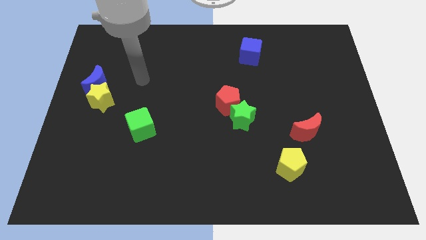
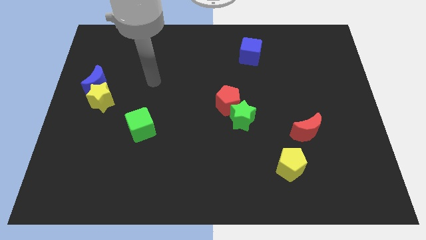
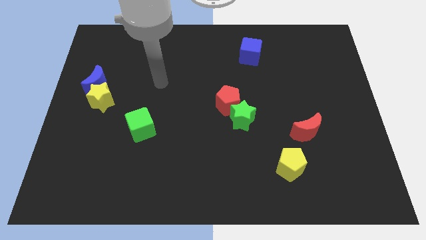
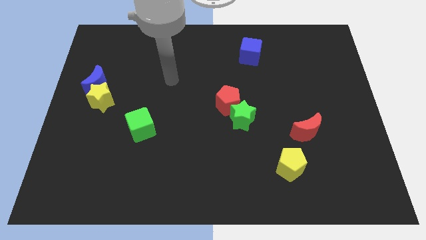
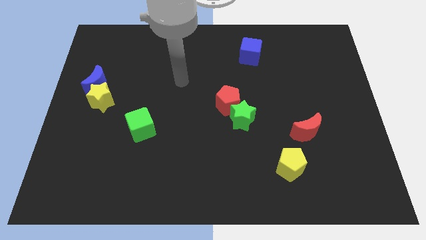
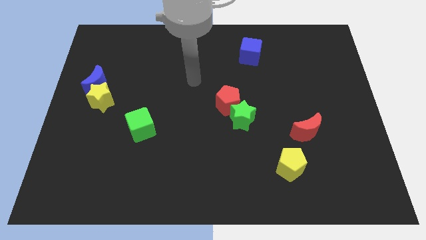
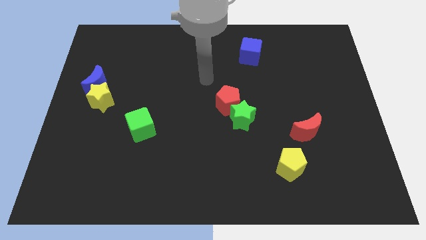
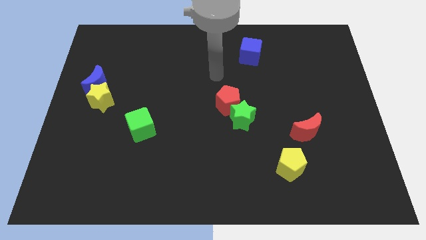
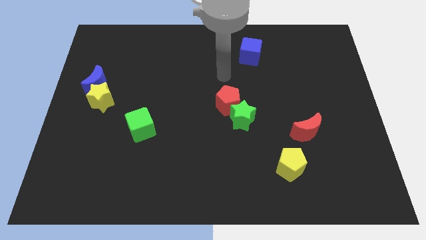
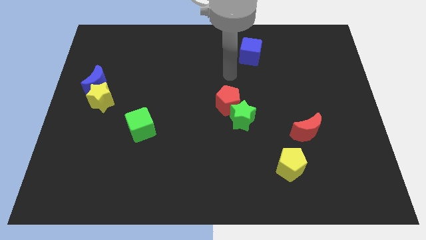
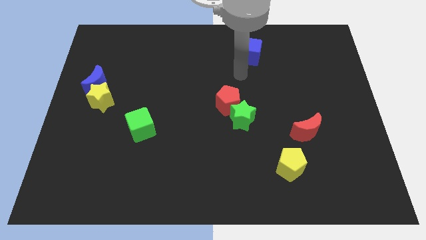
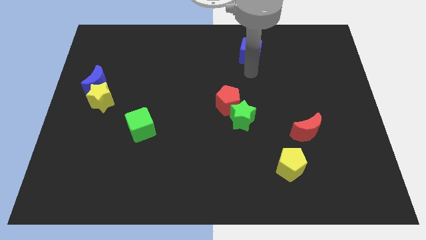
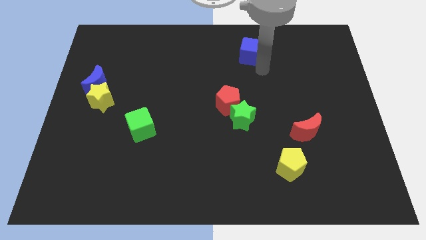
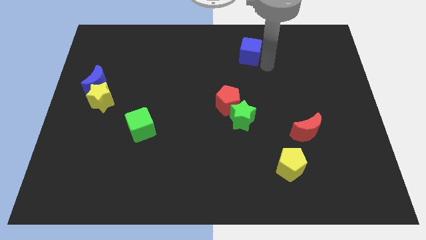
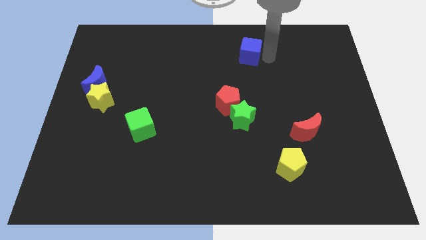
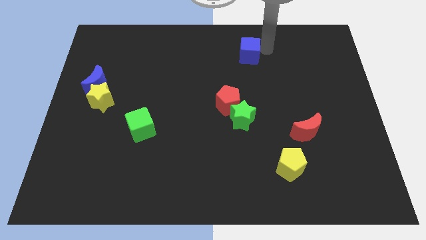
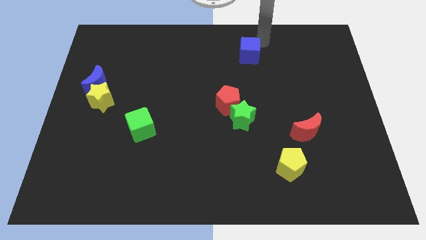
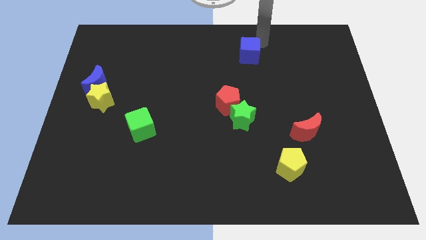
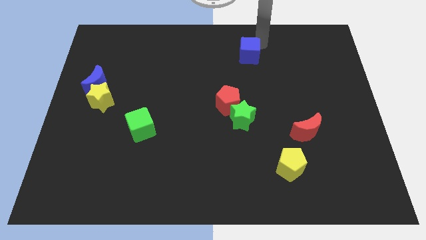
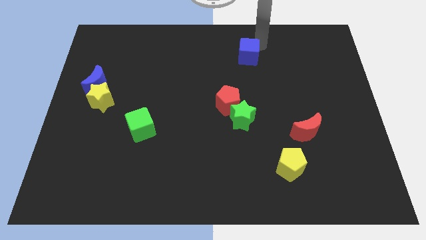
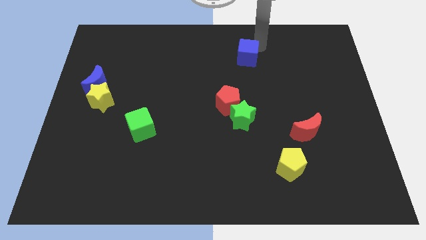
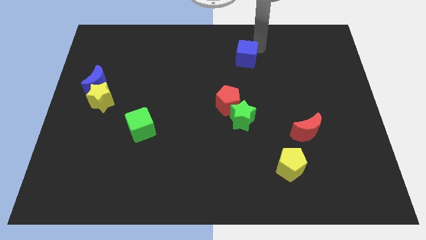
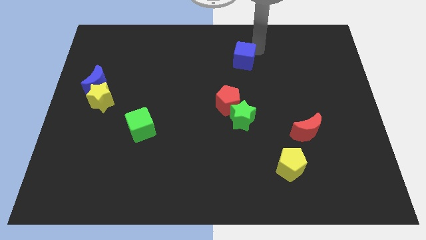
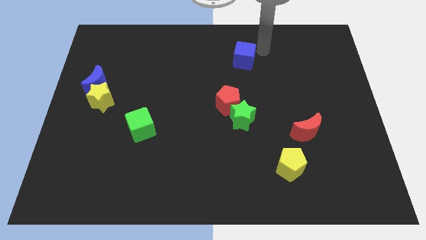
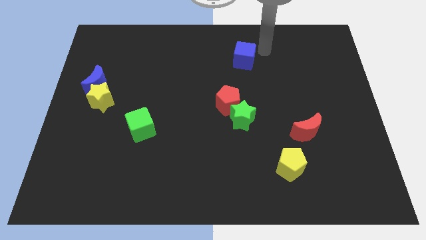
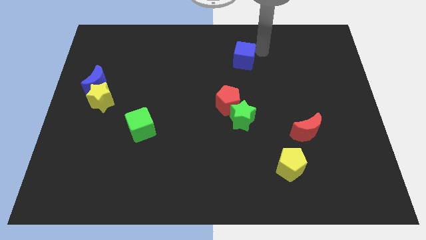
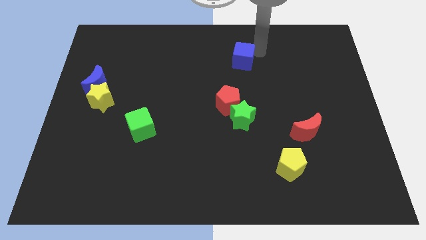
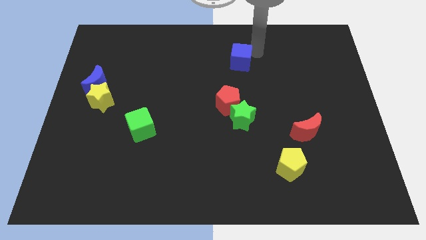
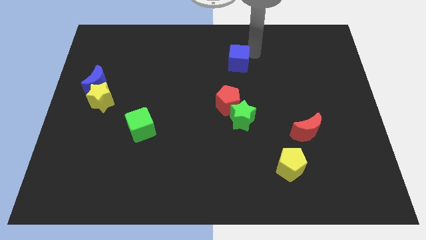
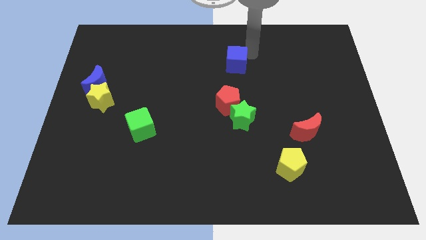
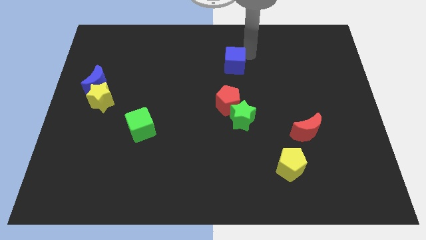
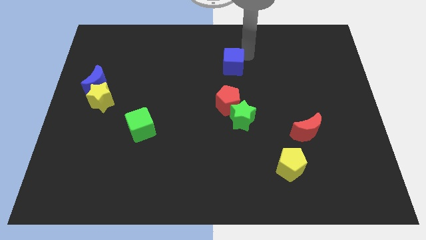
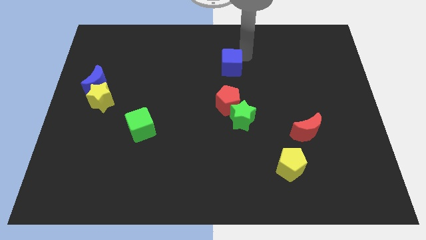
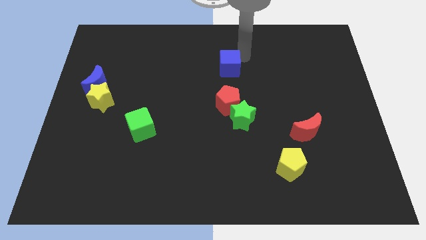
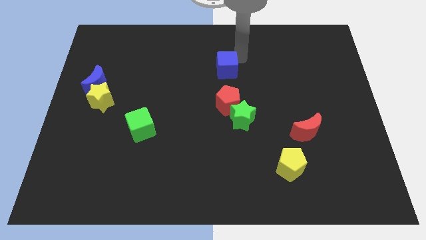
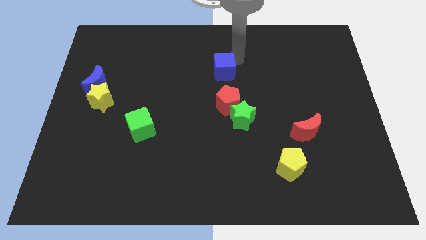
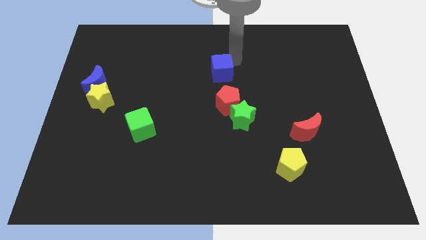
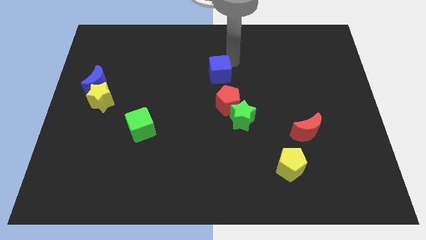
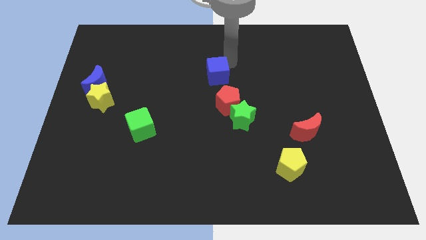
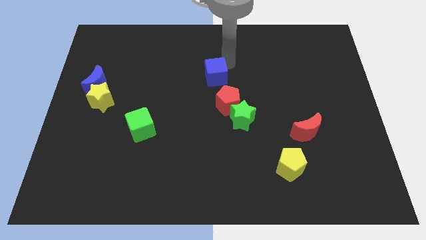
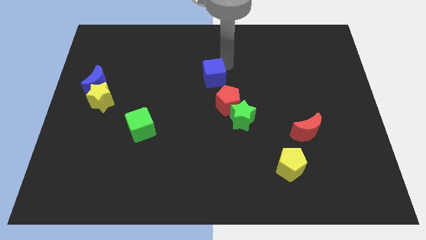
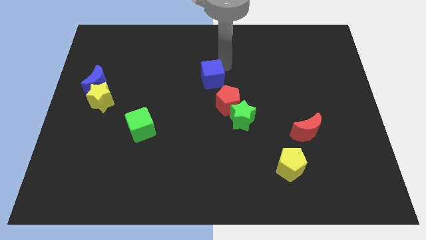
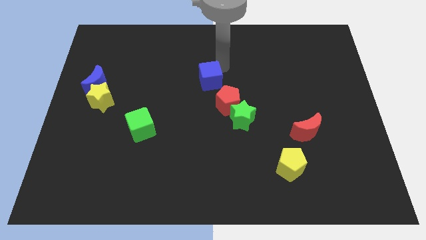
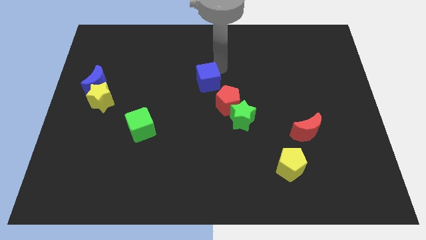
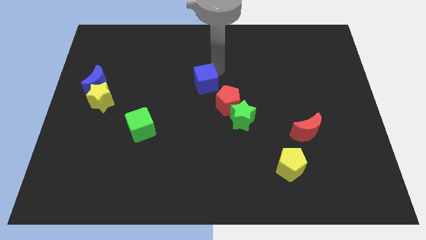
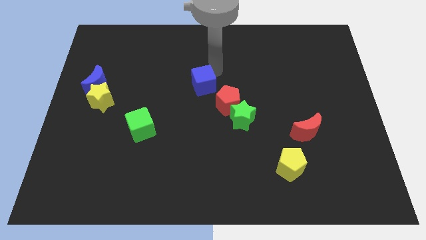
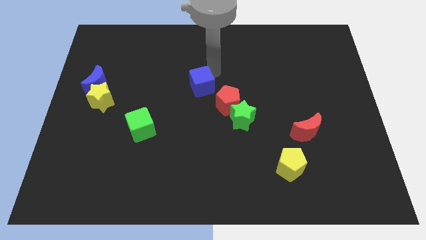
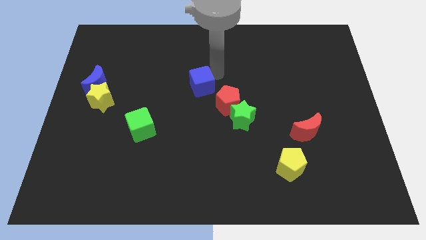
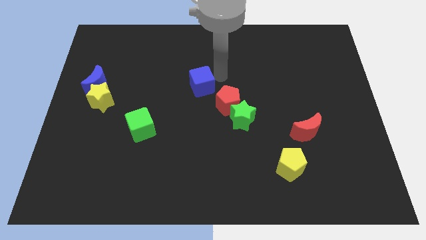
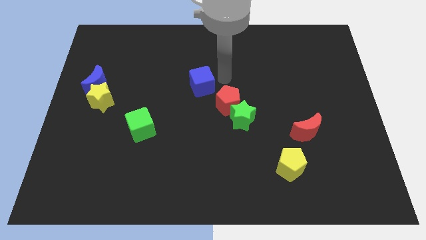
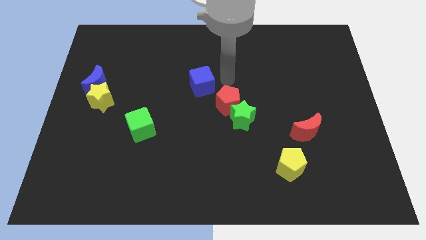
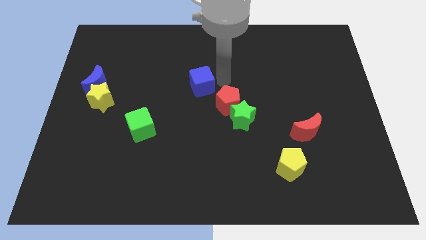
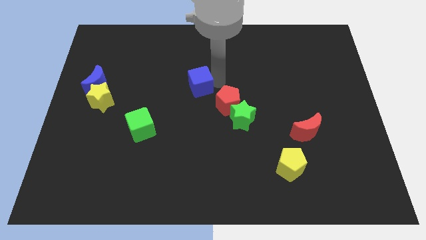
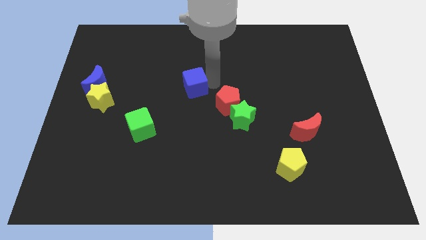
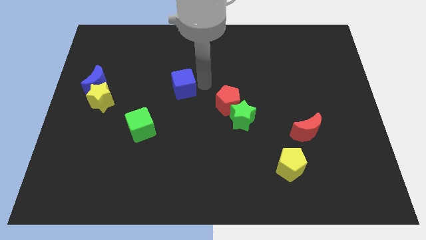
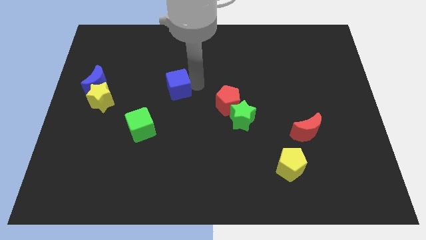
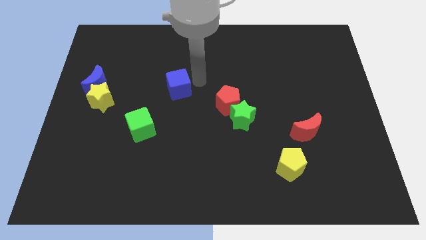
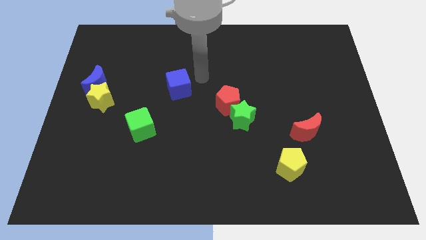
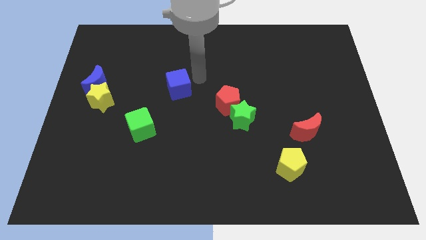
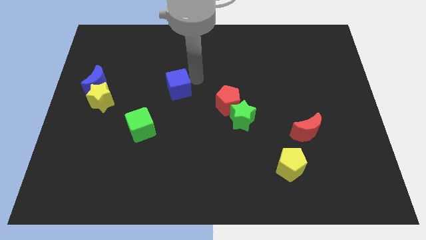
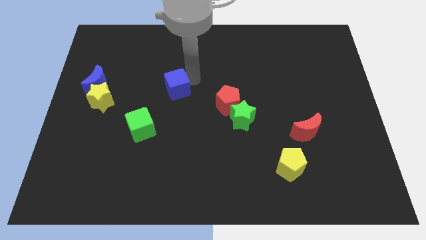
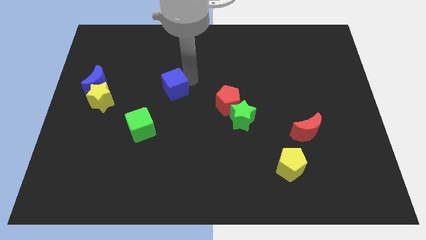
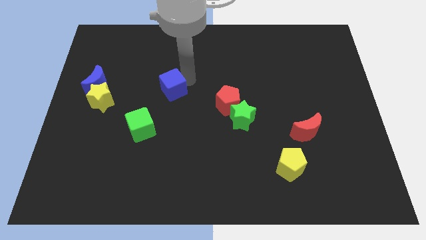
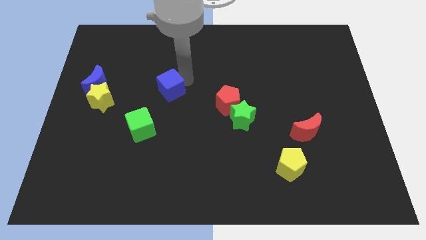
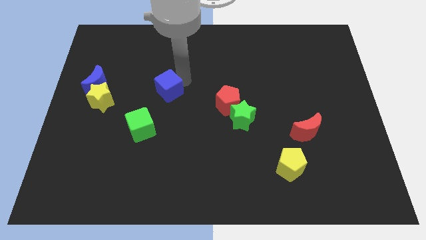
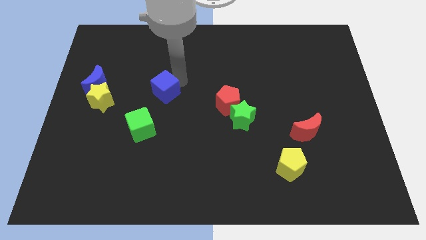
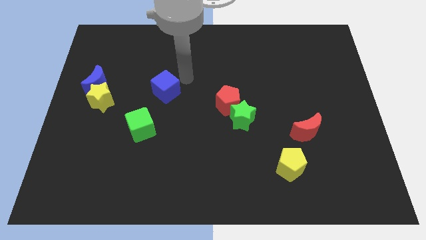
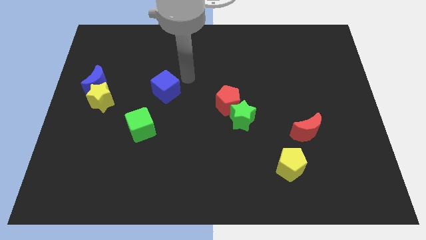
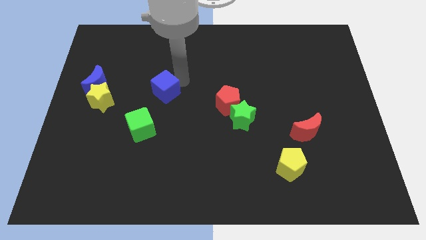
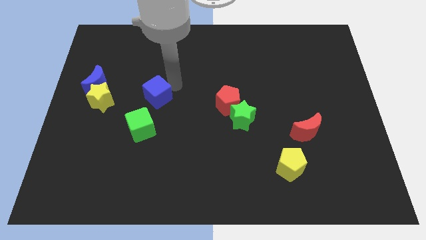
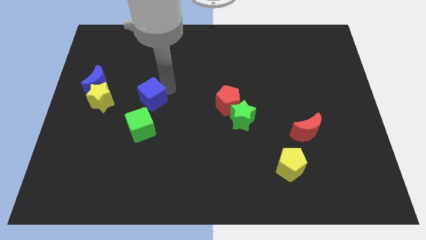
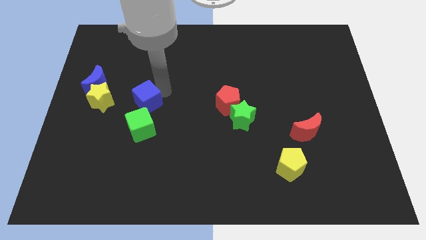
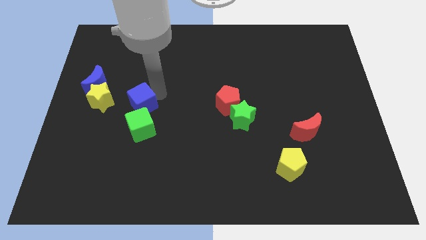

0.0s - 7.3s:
slide the blue cube diagonally up and to the left of the green cube
